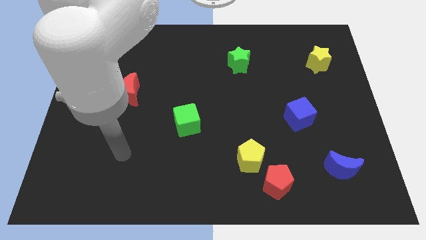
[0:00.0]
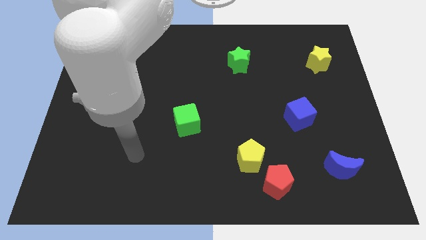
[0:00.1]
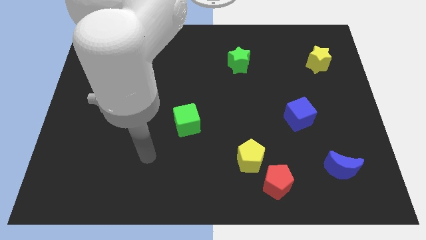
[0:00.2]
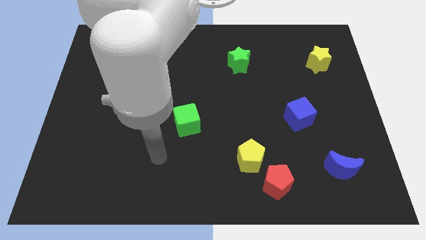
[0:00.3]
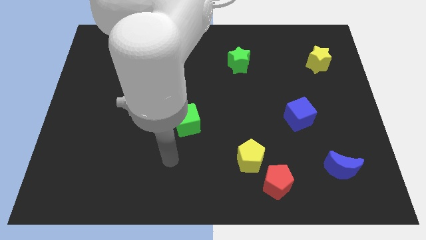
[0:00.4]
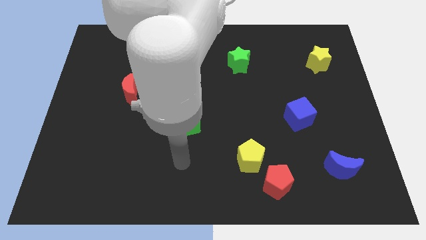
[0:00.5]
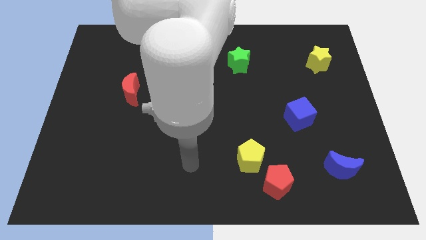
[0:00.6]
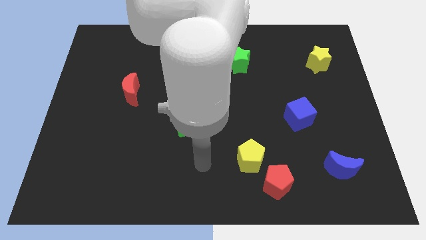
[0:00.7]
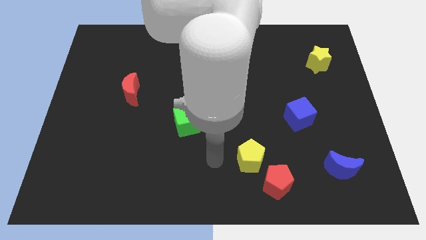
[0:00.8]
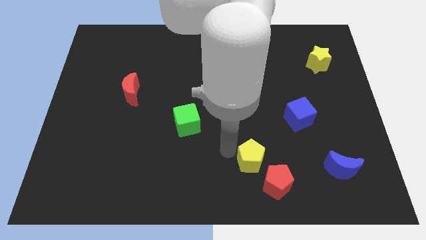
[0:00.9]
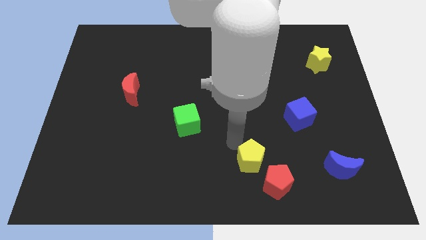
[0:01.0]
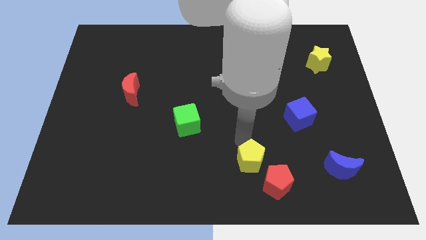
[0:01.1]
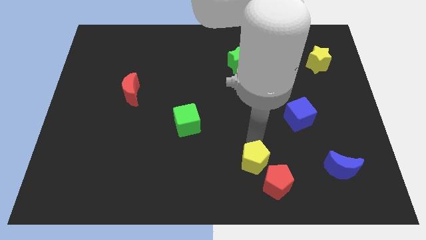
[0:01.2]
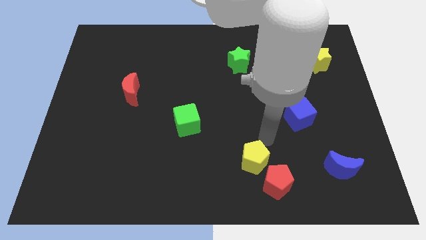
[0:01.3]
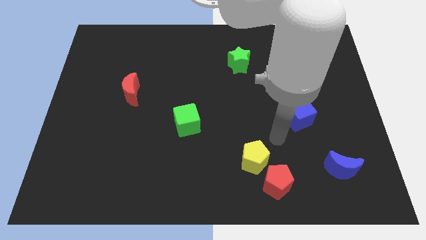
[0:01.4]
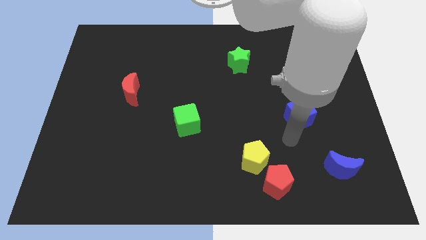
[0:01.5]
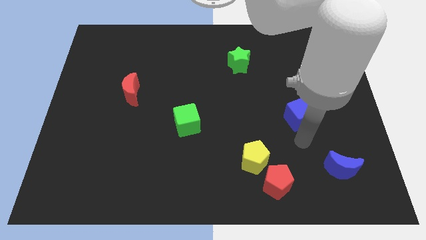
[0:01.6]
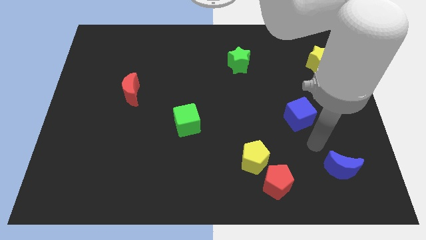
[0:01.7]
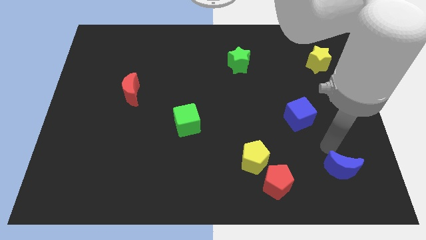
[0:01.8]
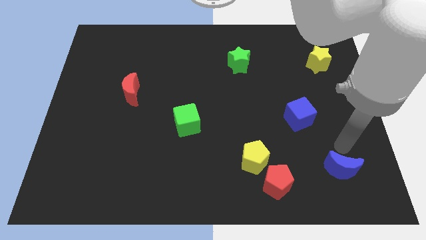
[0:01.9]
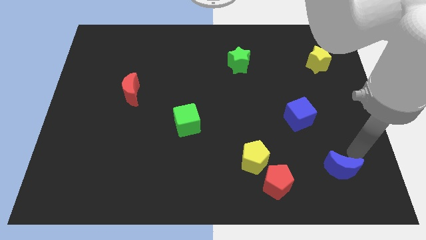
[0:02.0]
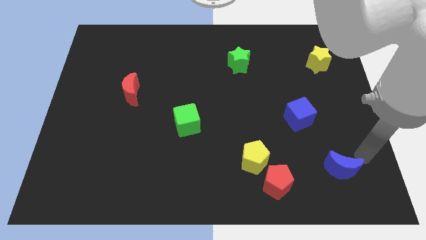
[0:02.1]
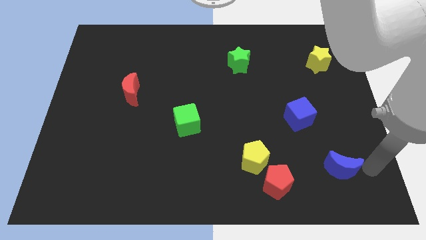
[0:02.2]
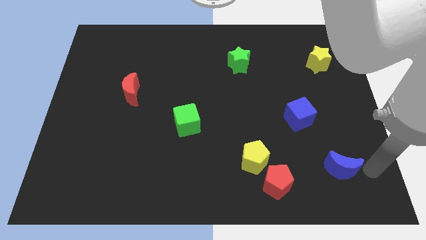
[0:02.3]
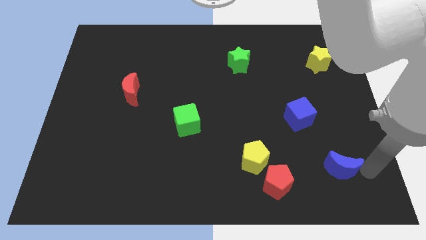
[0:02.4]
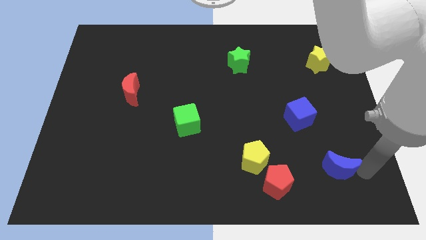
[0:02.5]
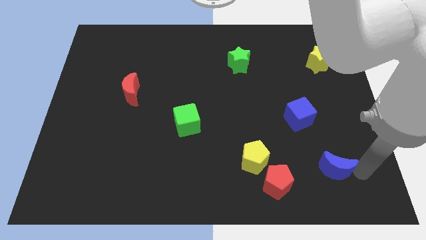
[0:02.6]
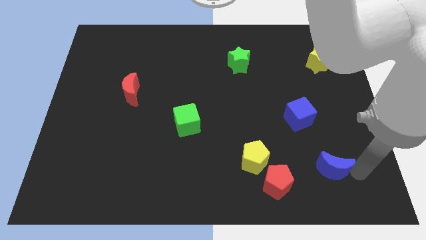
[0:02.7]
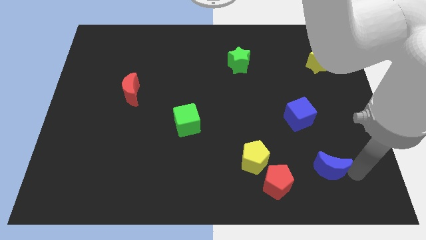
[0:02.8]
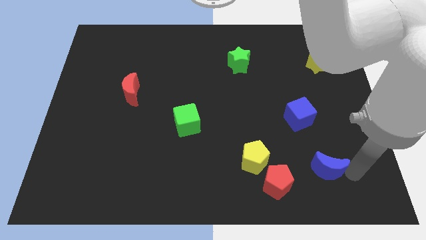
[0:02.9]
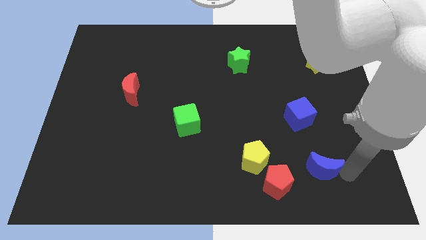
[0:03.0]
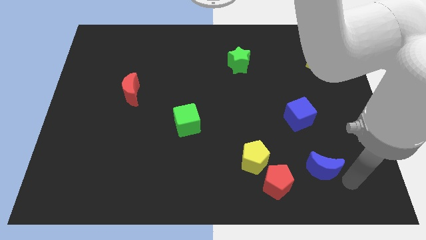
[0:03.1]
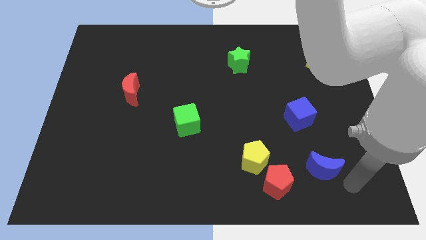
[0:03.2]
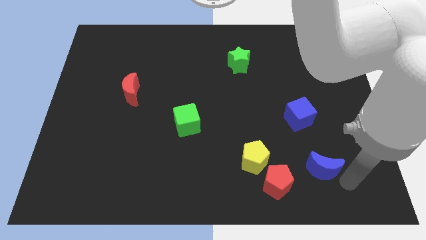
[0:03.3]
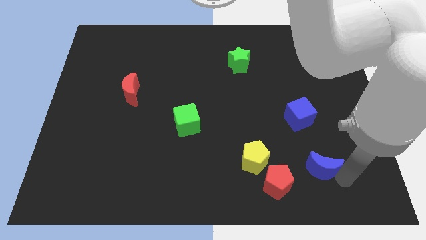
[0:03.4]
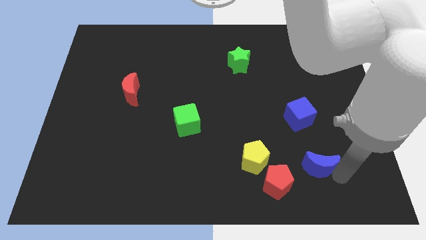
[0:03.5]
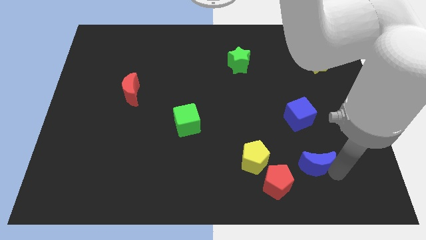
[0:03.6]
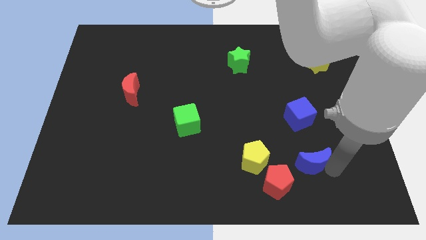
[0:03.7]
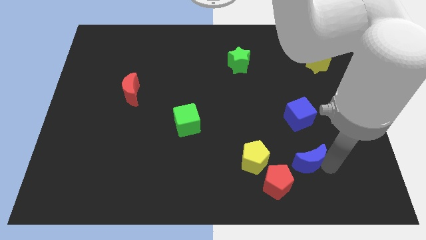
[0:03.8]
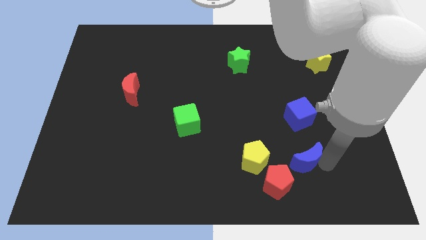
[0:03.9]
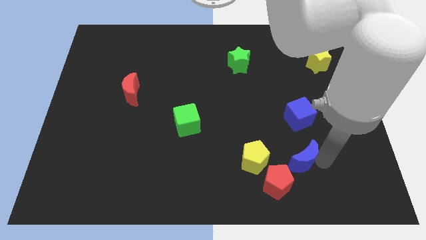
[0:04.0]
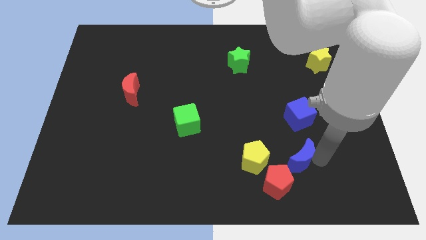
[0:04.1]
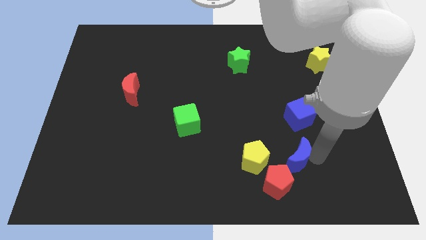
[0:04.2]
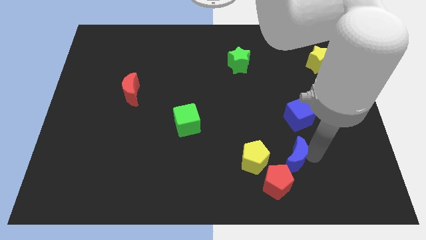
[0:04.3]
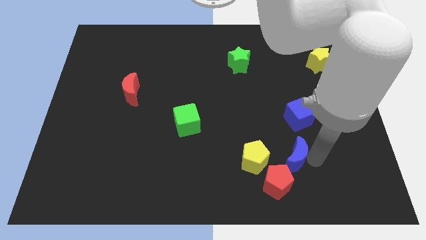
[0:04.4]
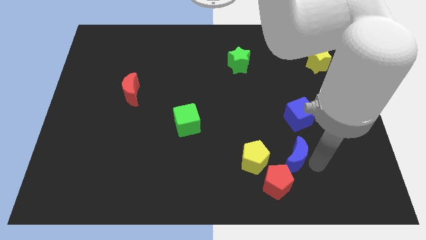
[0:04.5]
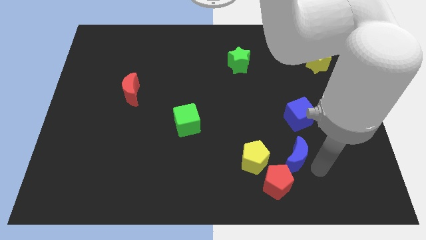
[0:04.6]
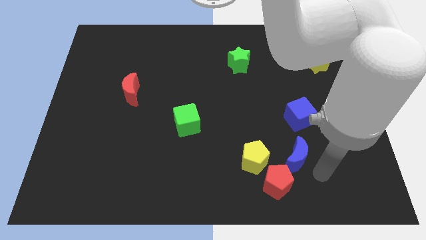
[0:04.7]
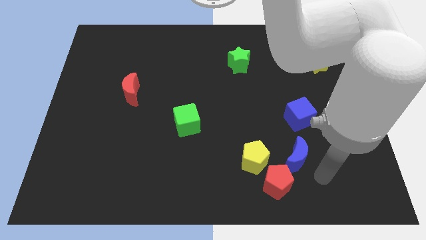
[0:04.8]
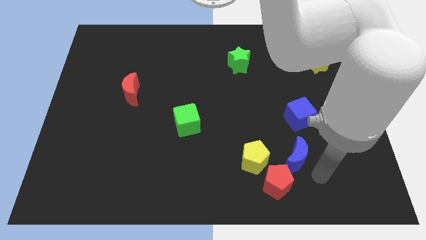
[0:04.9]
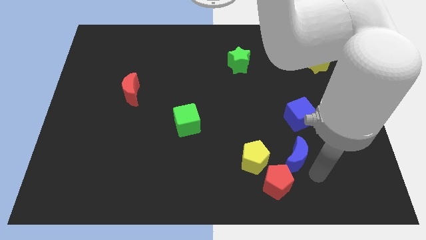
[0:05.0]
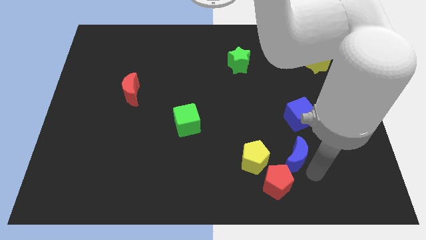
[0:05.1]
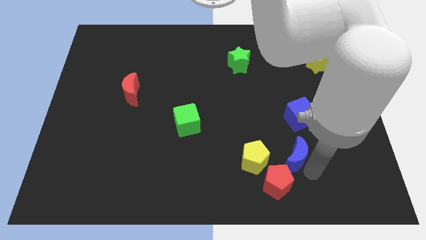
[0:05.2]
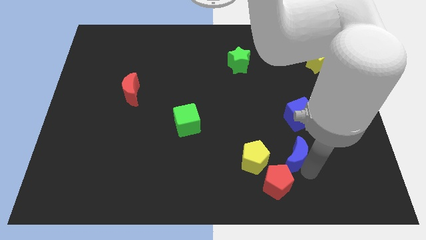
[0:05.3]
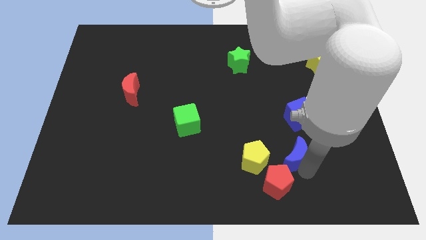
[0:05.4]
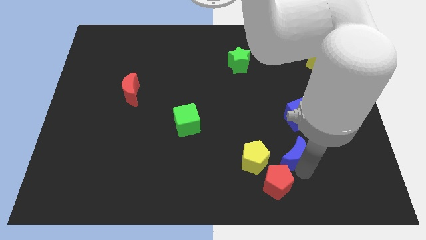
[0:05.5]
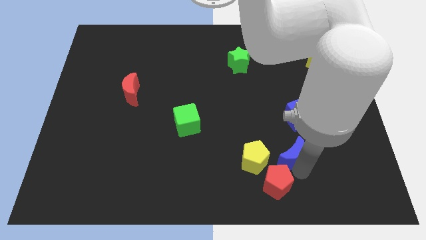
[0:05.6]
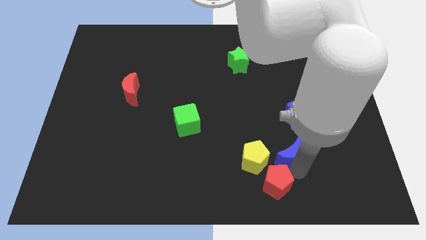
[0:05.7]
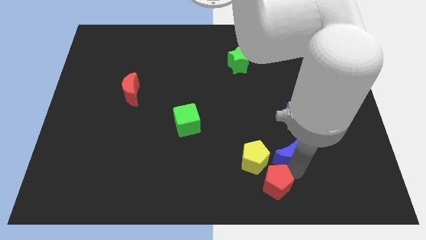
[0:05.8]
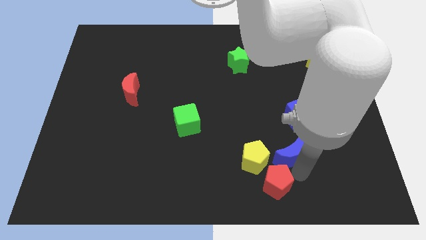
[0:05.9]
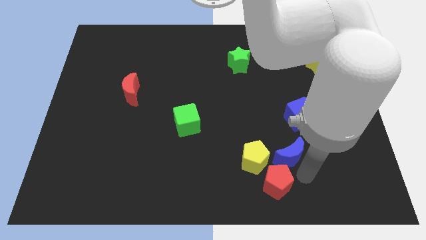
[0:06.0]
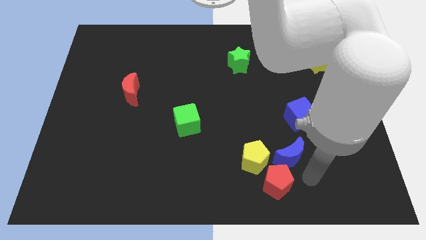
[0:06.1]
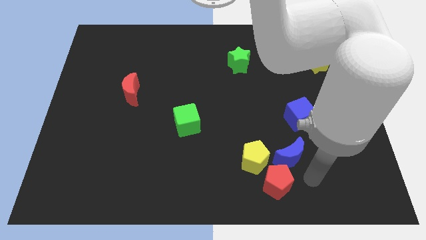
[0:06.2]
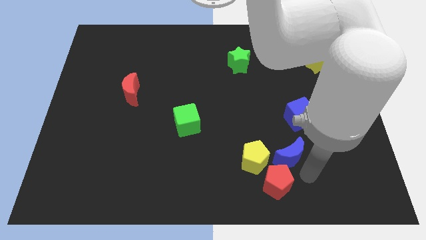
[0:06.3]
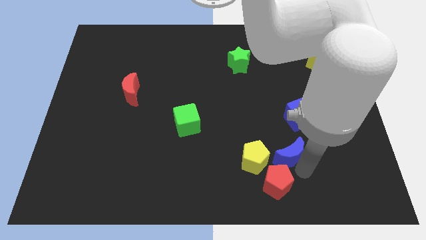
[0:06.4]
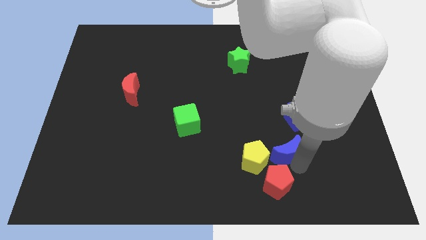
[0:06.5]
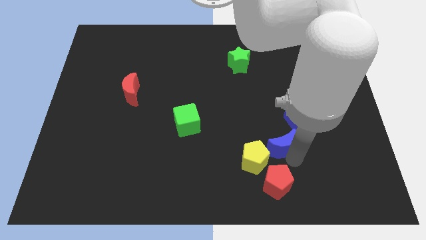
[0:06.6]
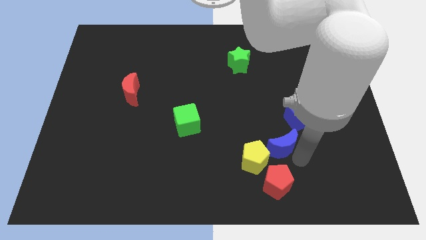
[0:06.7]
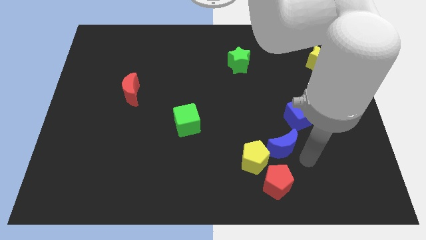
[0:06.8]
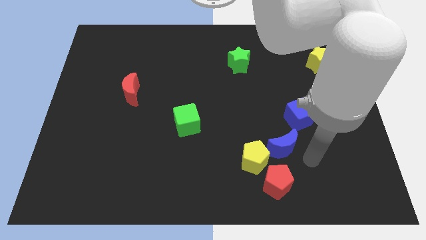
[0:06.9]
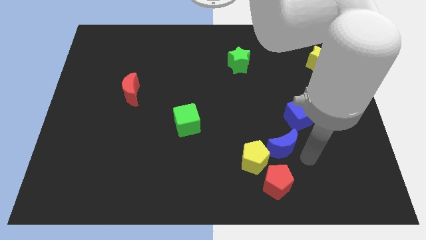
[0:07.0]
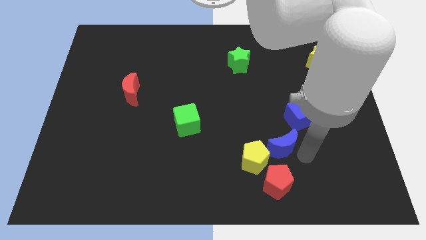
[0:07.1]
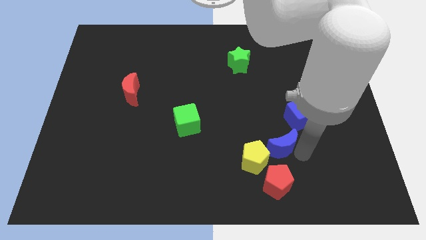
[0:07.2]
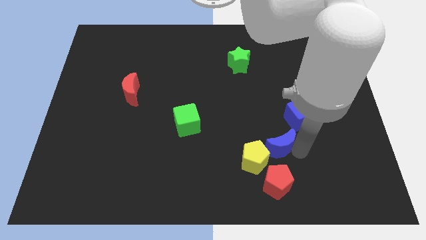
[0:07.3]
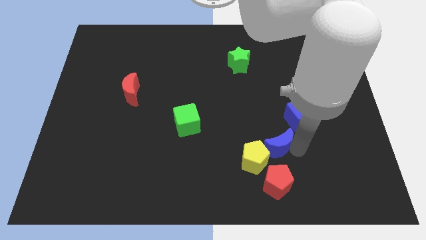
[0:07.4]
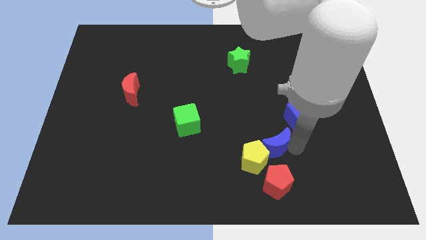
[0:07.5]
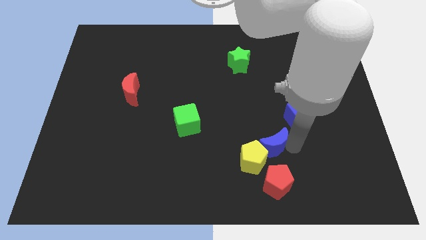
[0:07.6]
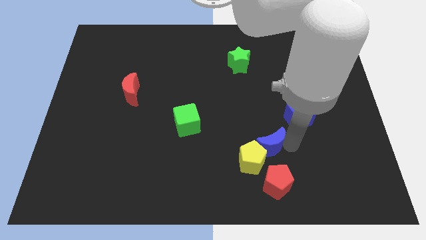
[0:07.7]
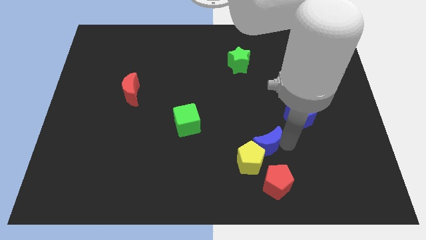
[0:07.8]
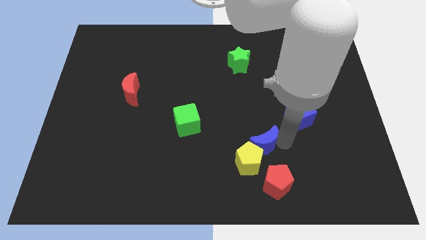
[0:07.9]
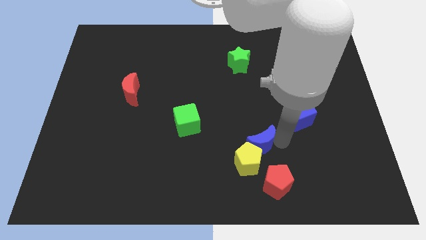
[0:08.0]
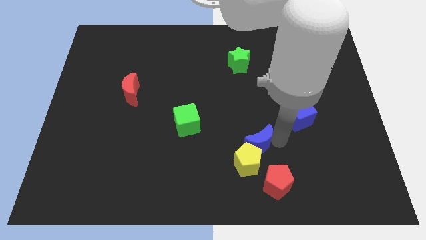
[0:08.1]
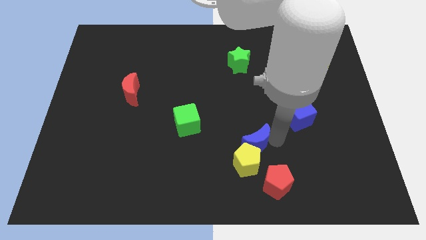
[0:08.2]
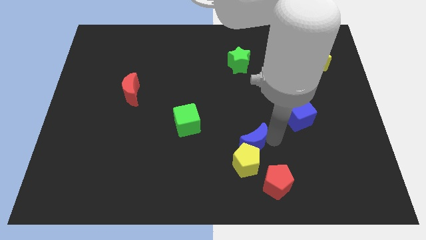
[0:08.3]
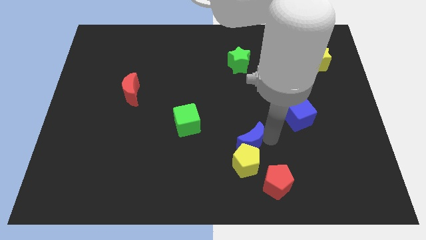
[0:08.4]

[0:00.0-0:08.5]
slide the blue moon to the top left side of the yellow pentagon
